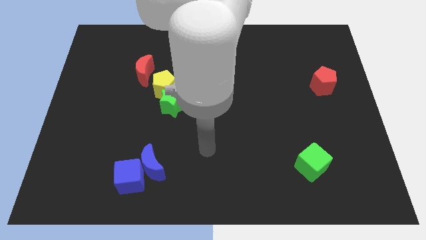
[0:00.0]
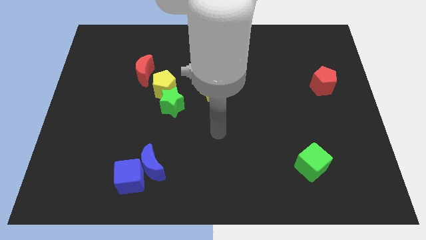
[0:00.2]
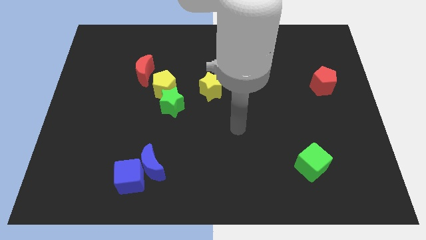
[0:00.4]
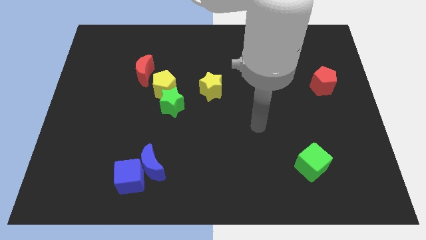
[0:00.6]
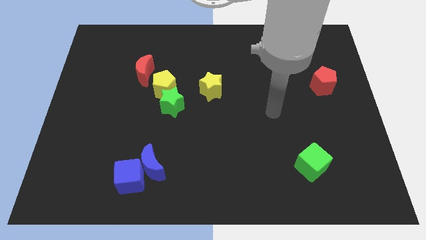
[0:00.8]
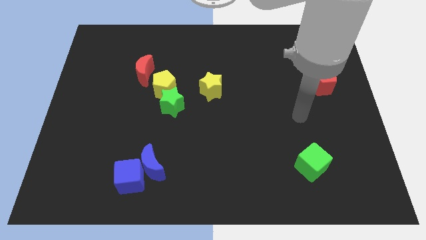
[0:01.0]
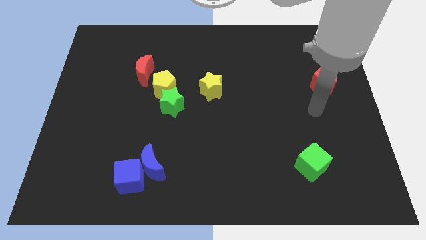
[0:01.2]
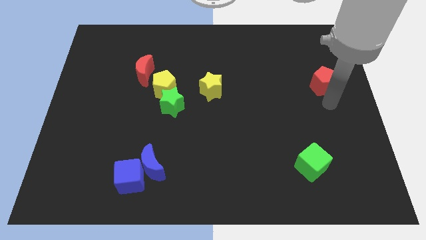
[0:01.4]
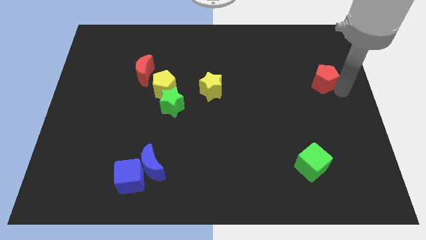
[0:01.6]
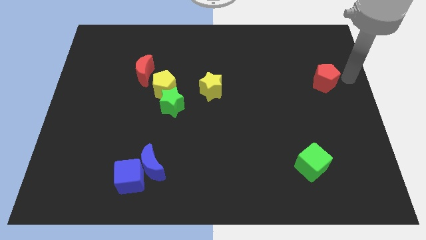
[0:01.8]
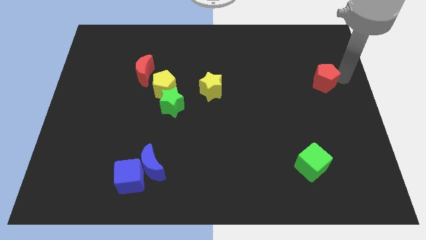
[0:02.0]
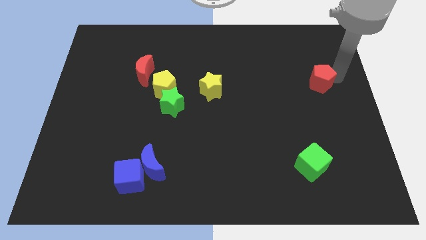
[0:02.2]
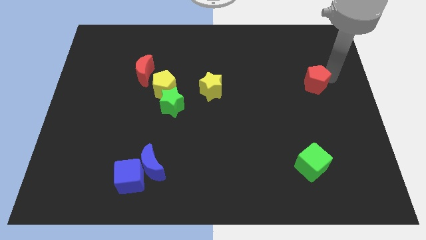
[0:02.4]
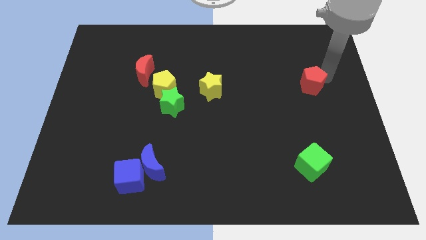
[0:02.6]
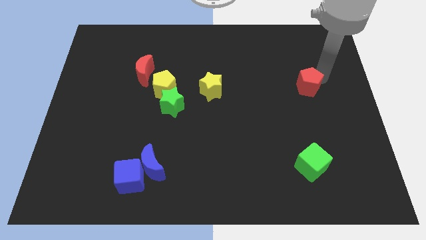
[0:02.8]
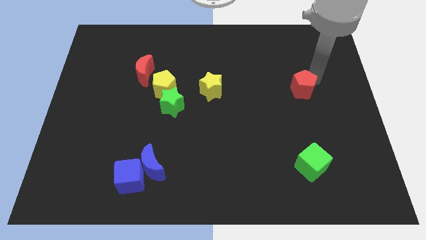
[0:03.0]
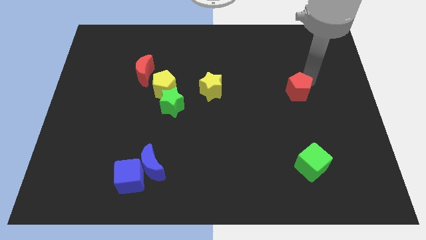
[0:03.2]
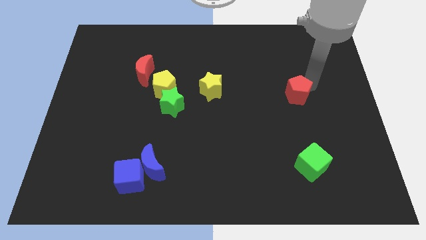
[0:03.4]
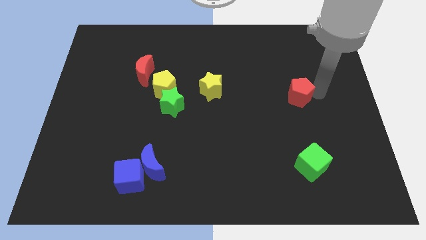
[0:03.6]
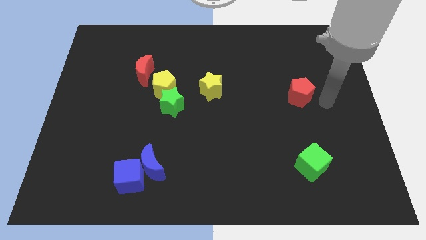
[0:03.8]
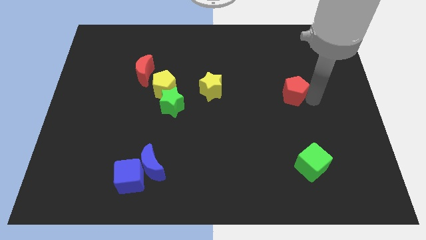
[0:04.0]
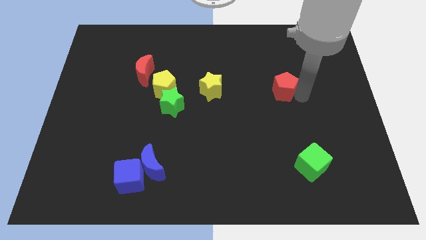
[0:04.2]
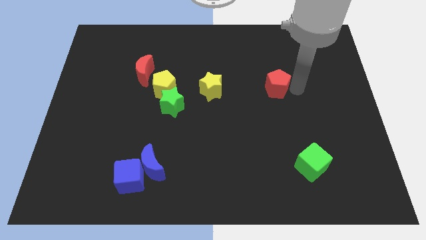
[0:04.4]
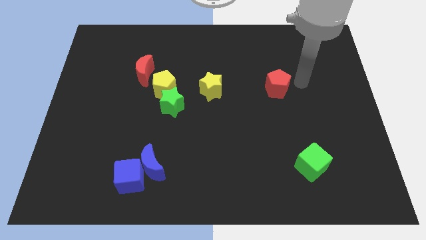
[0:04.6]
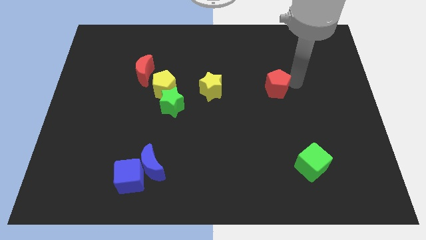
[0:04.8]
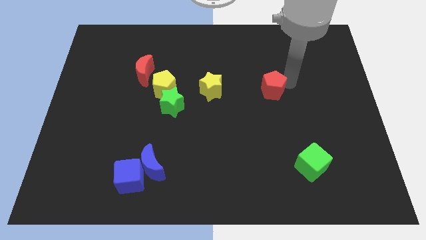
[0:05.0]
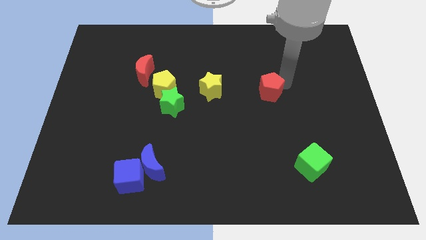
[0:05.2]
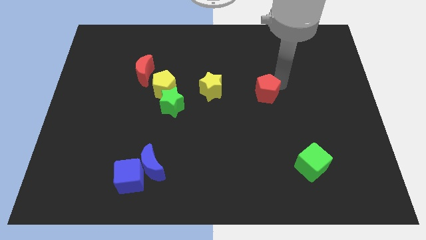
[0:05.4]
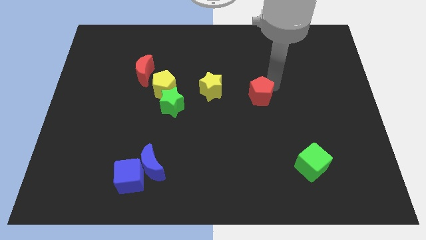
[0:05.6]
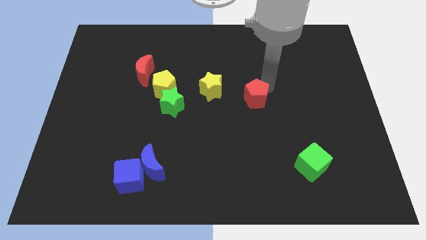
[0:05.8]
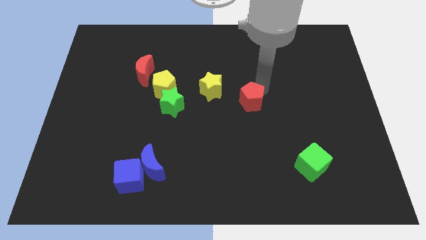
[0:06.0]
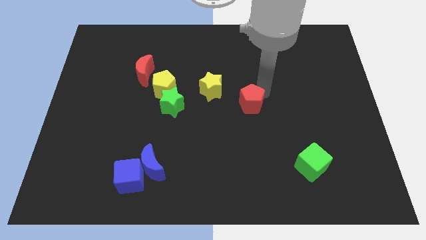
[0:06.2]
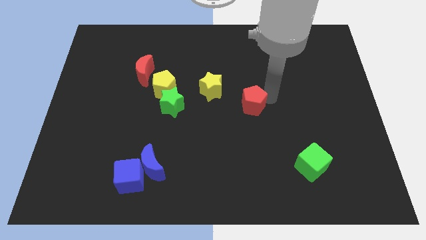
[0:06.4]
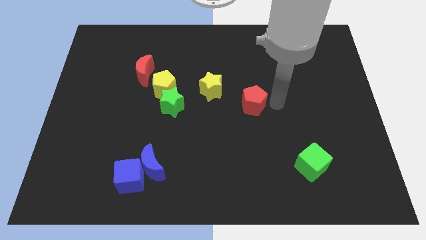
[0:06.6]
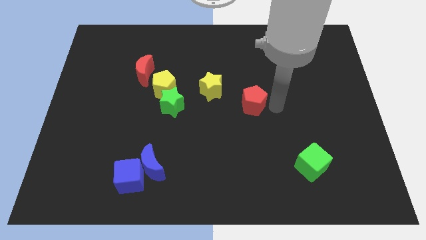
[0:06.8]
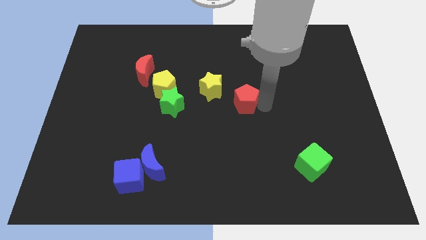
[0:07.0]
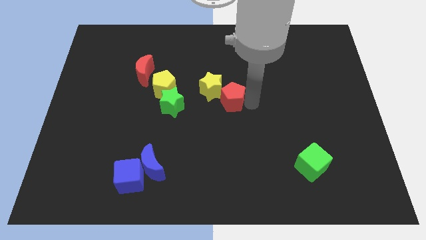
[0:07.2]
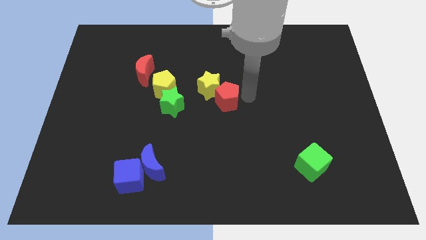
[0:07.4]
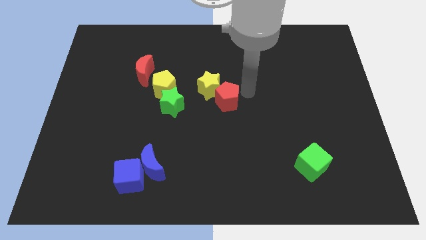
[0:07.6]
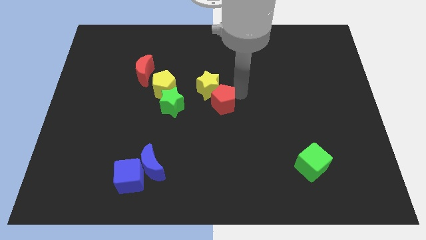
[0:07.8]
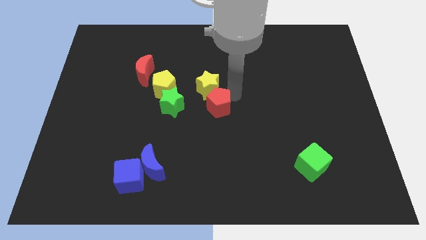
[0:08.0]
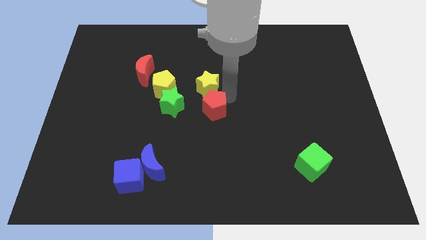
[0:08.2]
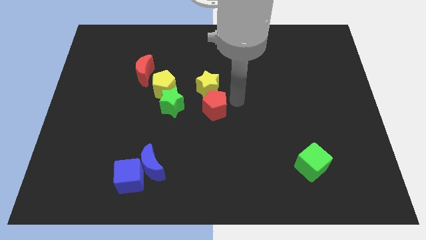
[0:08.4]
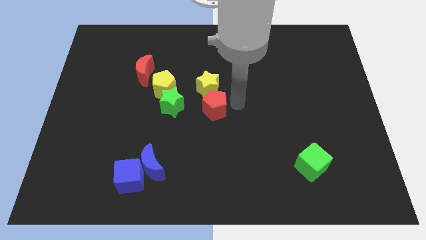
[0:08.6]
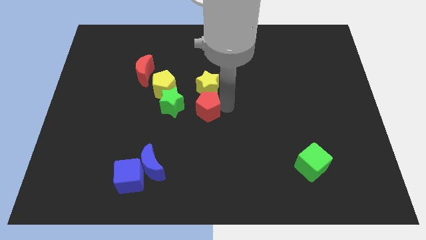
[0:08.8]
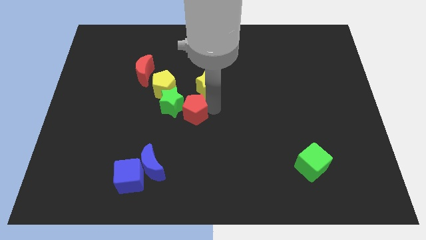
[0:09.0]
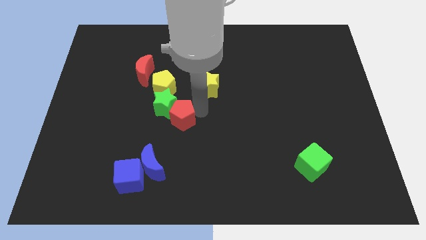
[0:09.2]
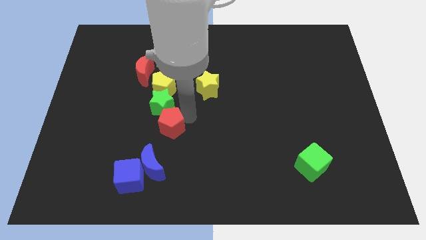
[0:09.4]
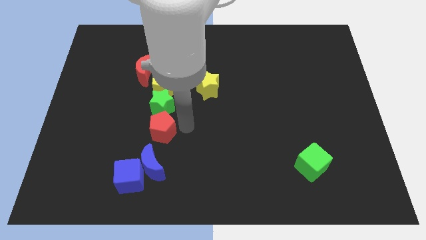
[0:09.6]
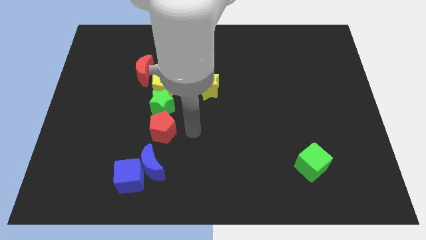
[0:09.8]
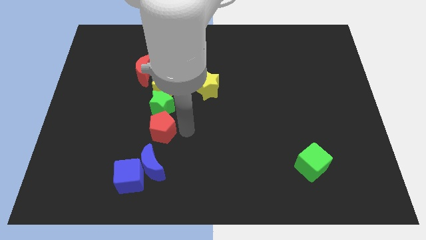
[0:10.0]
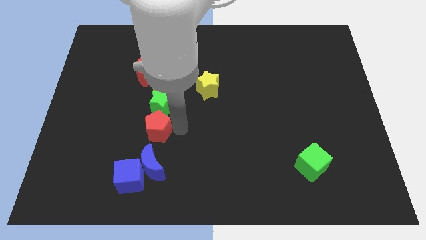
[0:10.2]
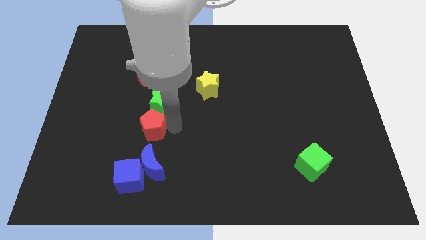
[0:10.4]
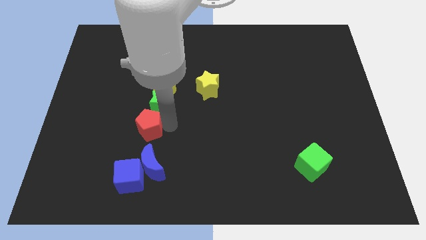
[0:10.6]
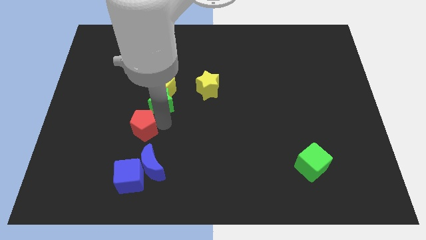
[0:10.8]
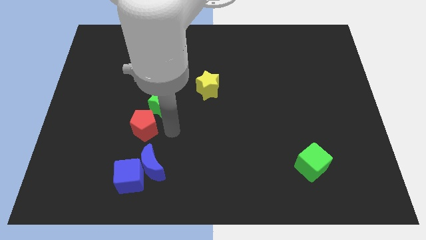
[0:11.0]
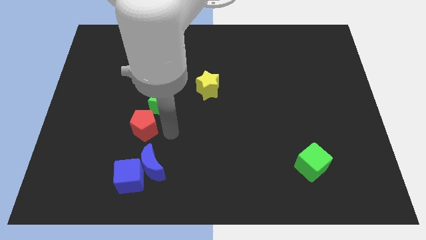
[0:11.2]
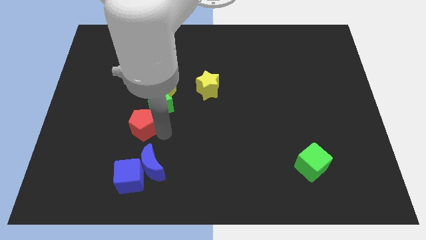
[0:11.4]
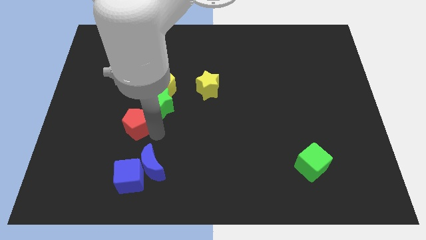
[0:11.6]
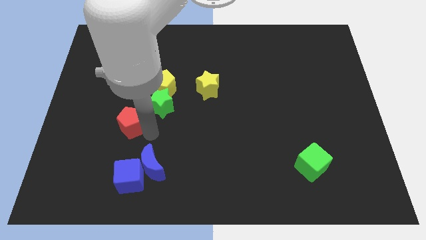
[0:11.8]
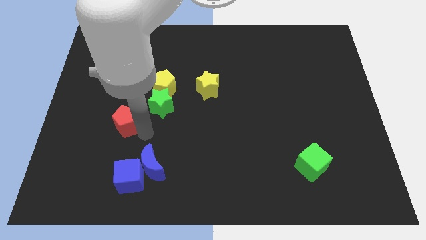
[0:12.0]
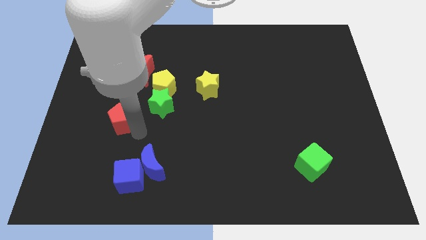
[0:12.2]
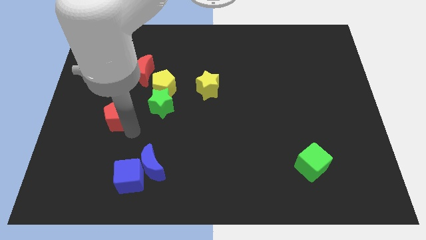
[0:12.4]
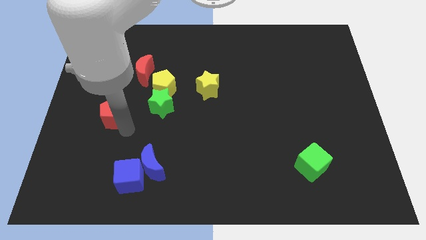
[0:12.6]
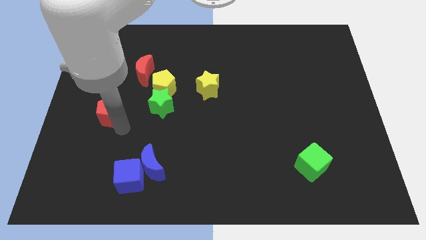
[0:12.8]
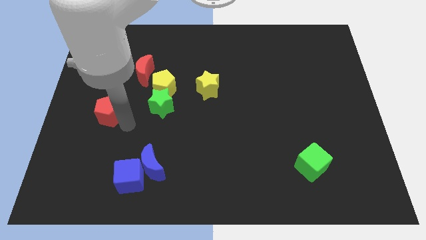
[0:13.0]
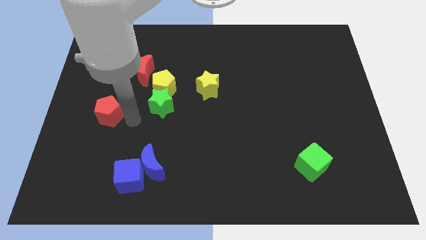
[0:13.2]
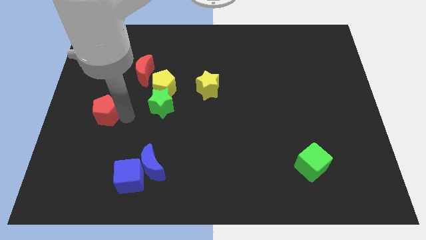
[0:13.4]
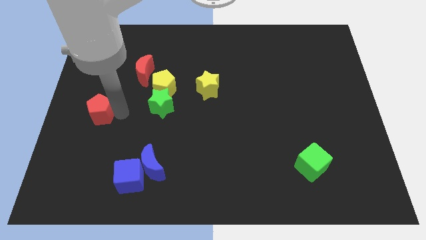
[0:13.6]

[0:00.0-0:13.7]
move the red pentagon to the left side of the board
